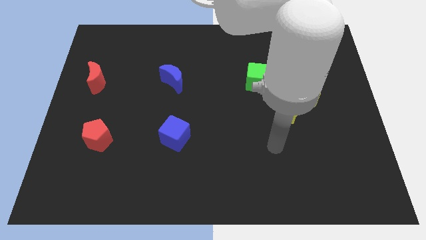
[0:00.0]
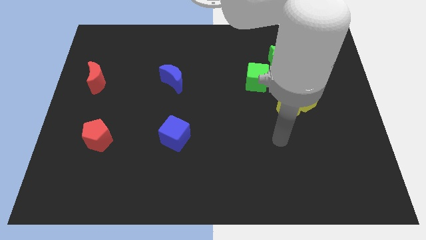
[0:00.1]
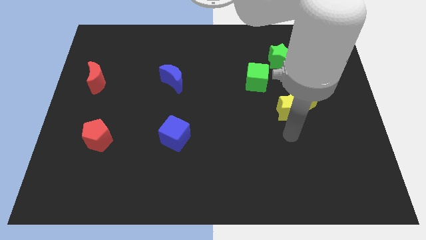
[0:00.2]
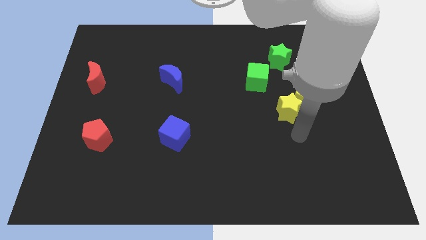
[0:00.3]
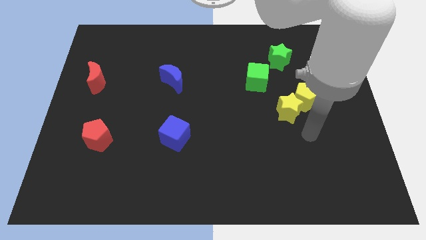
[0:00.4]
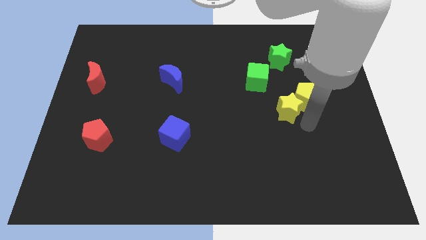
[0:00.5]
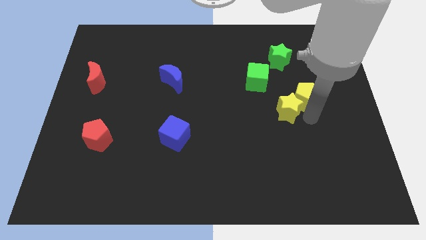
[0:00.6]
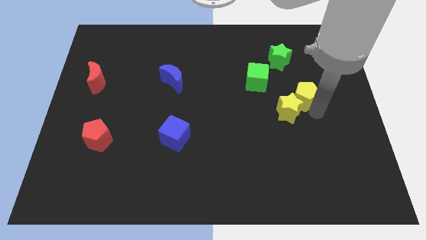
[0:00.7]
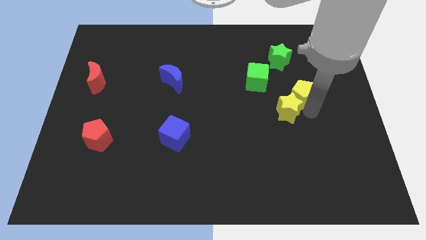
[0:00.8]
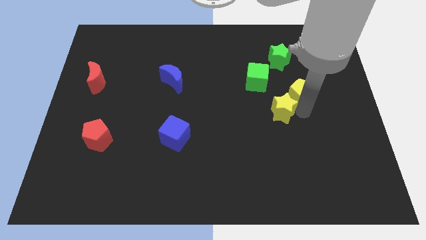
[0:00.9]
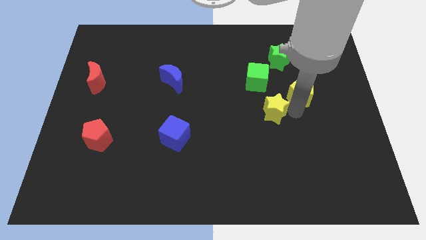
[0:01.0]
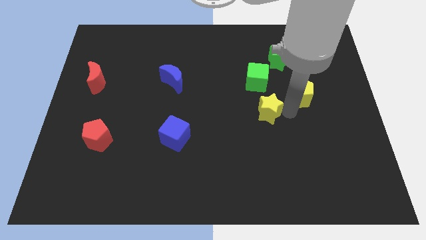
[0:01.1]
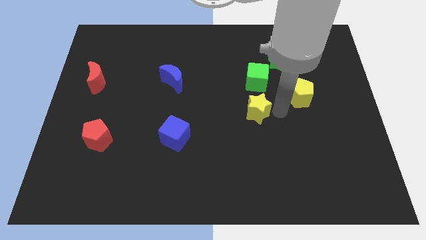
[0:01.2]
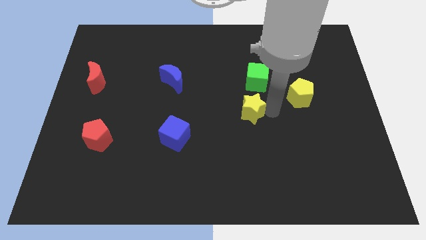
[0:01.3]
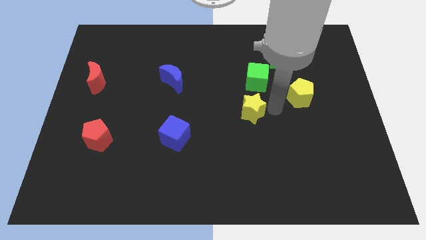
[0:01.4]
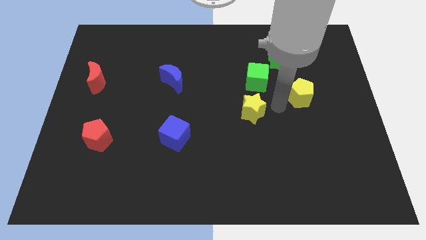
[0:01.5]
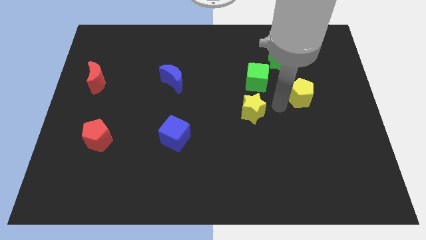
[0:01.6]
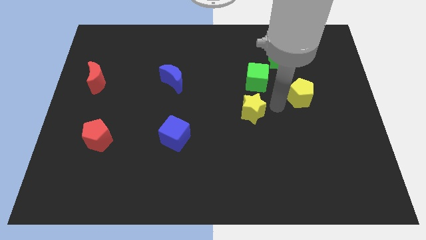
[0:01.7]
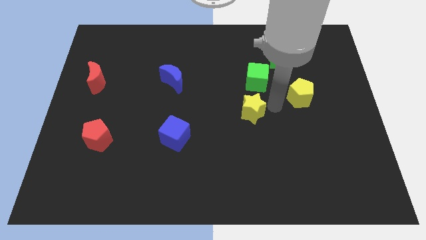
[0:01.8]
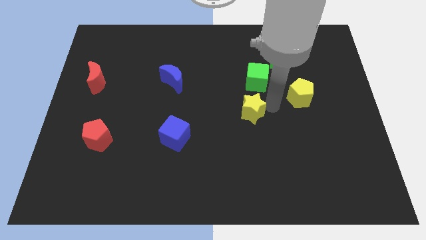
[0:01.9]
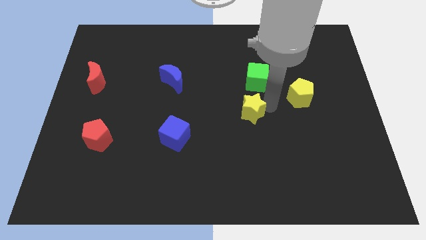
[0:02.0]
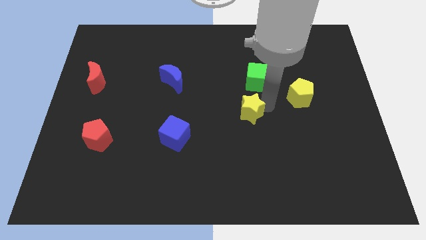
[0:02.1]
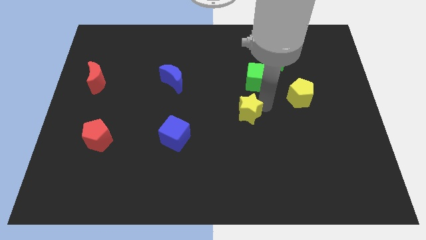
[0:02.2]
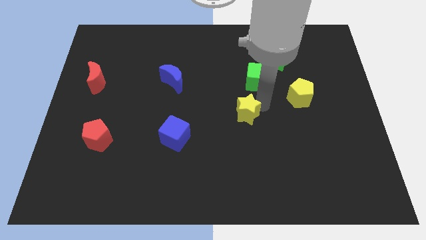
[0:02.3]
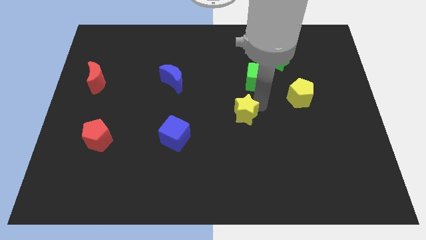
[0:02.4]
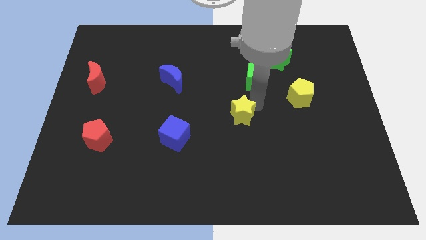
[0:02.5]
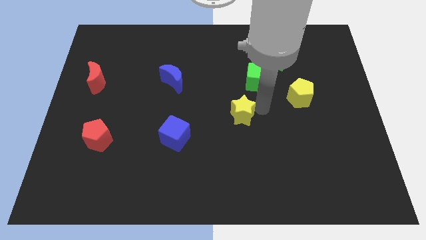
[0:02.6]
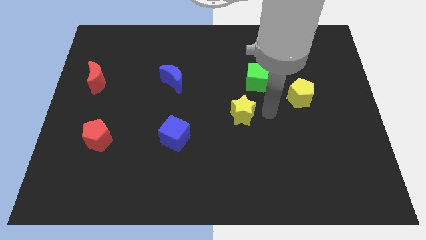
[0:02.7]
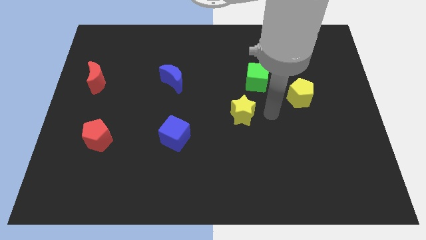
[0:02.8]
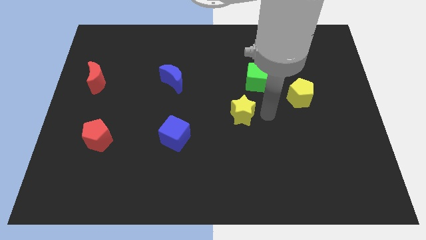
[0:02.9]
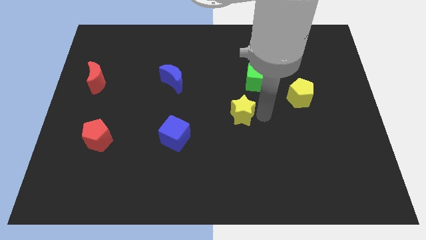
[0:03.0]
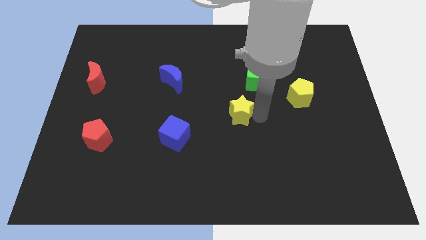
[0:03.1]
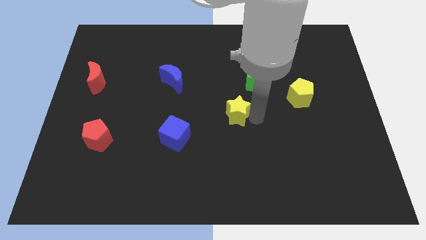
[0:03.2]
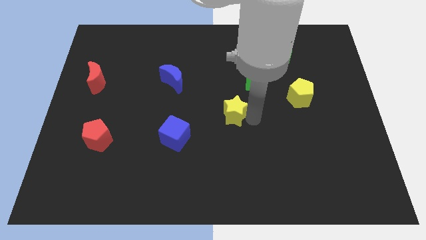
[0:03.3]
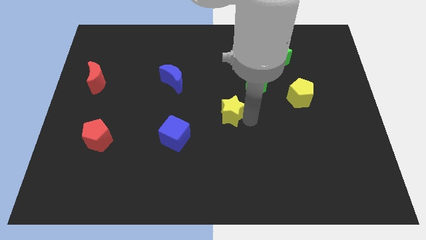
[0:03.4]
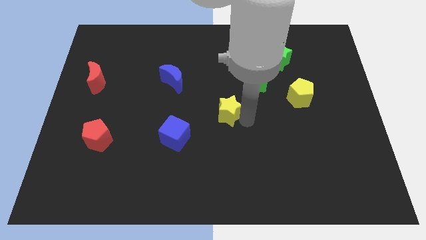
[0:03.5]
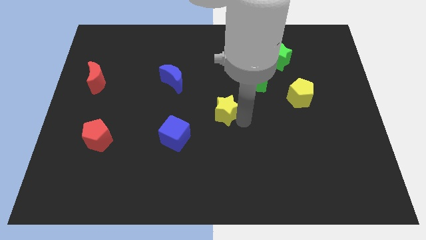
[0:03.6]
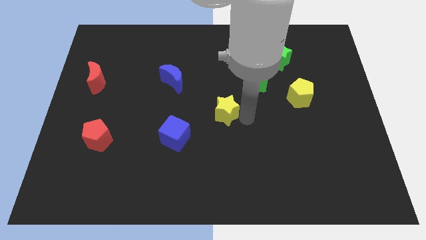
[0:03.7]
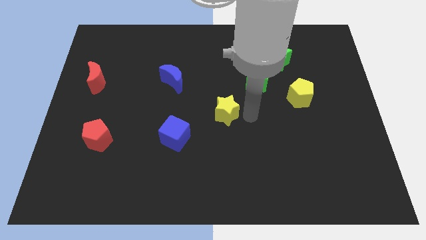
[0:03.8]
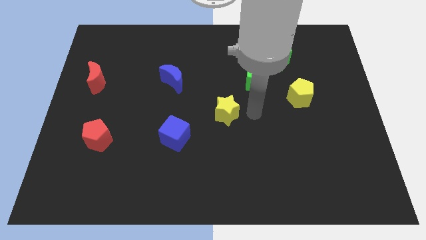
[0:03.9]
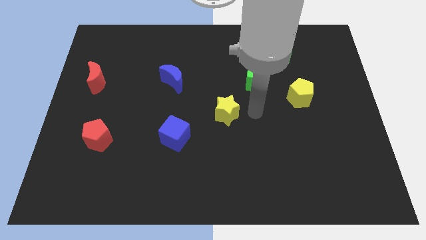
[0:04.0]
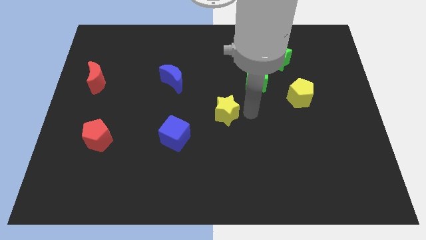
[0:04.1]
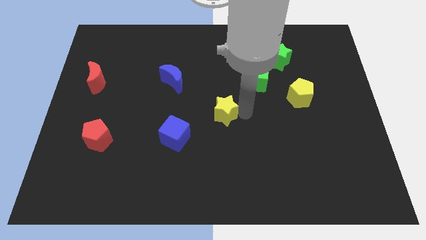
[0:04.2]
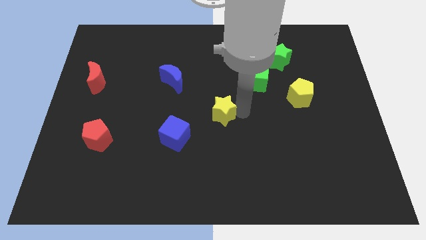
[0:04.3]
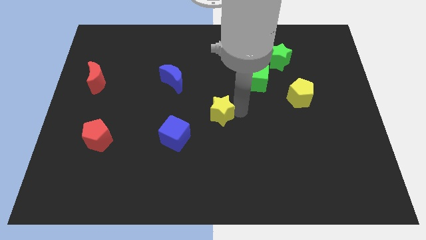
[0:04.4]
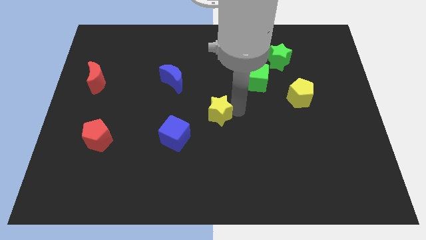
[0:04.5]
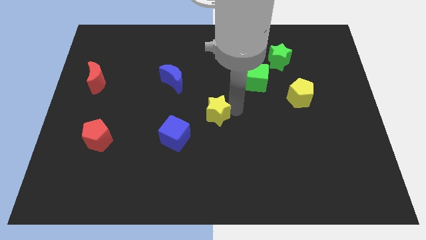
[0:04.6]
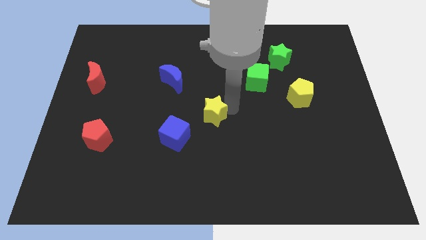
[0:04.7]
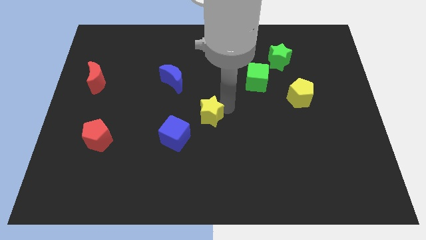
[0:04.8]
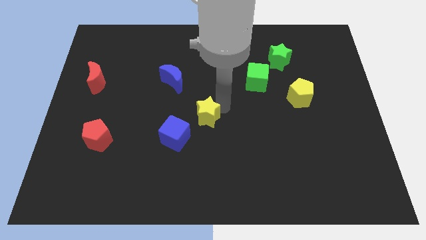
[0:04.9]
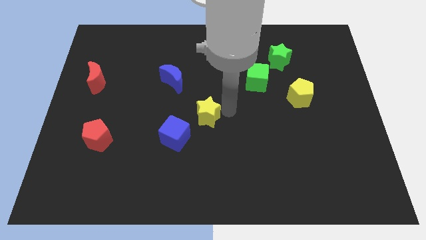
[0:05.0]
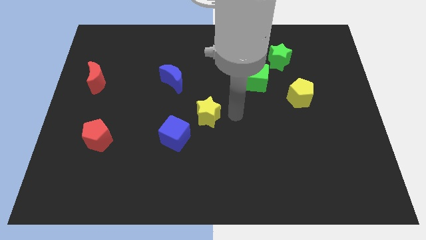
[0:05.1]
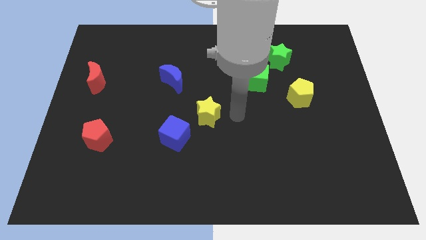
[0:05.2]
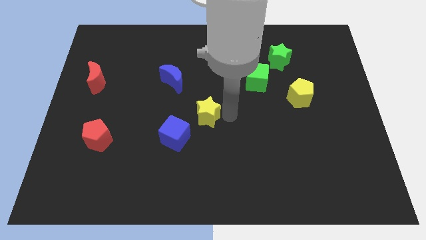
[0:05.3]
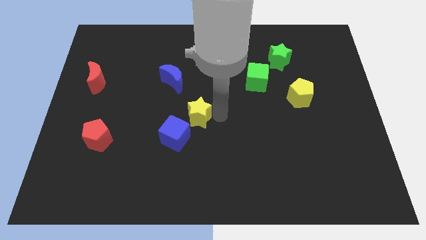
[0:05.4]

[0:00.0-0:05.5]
slide the yellow star left

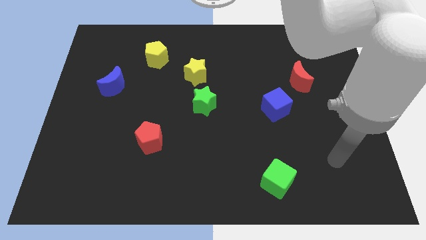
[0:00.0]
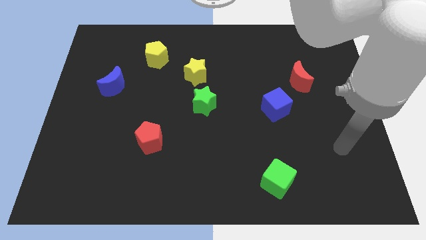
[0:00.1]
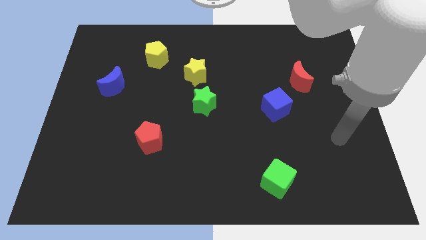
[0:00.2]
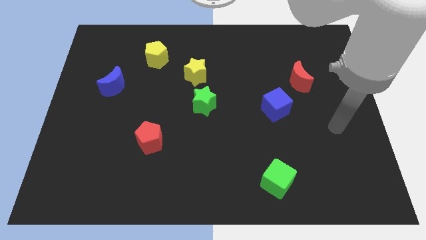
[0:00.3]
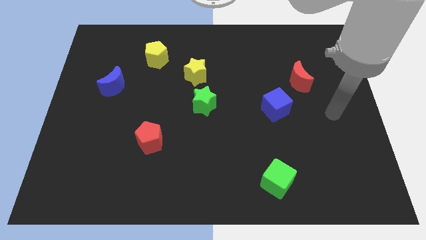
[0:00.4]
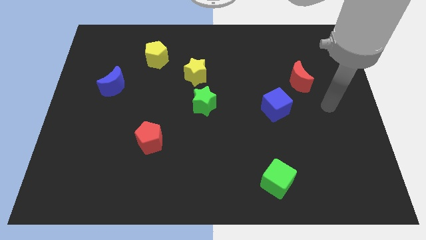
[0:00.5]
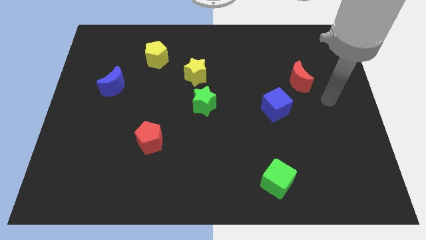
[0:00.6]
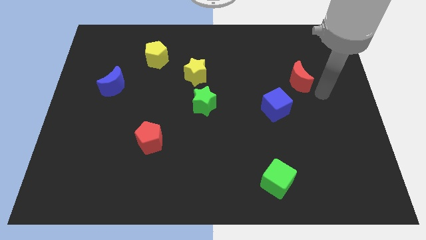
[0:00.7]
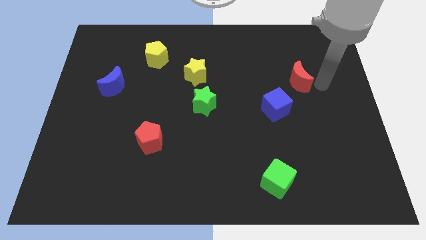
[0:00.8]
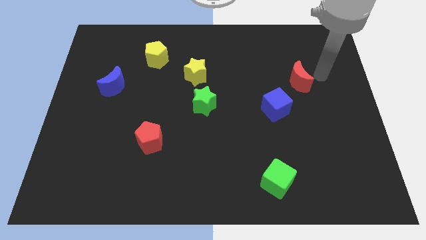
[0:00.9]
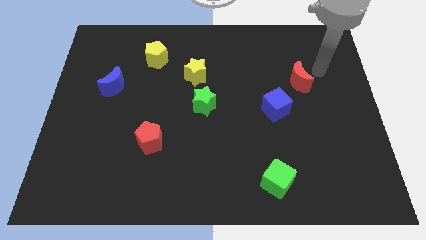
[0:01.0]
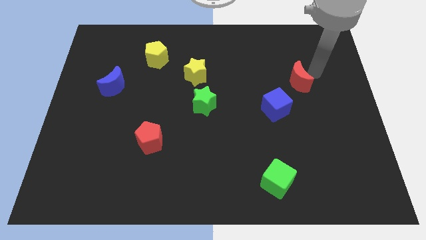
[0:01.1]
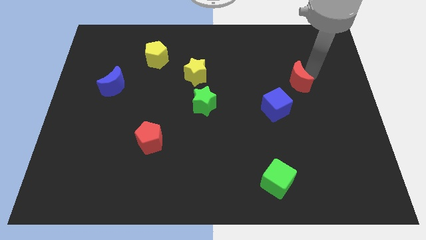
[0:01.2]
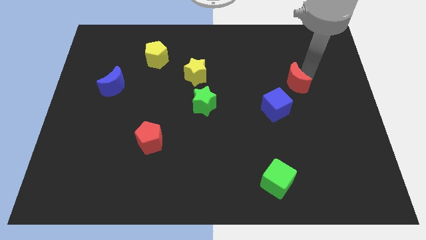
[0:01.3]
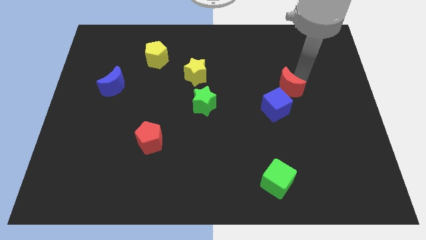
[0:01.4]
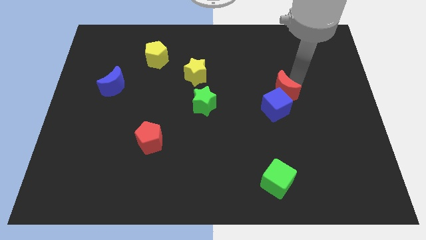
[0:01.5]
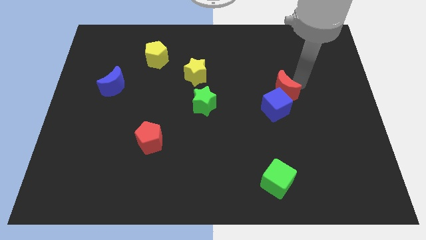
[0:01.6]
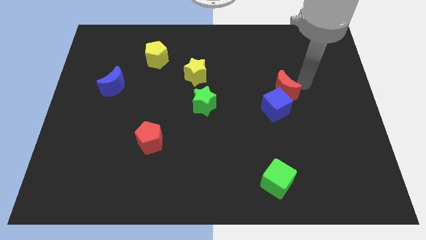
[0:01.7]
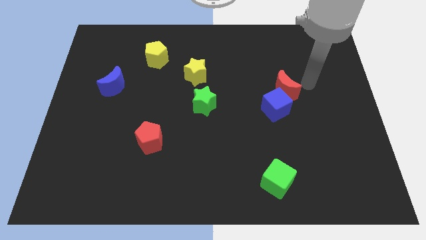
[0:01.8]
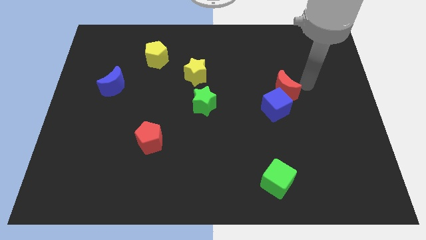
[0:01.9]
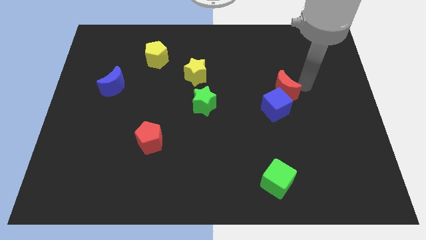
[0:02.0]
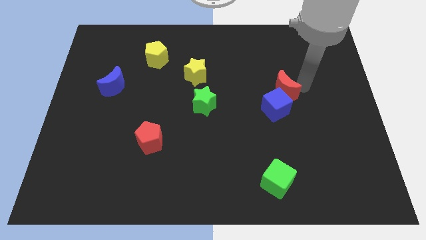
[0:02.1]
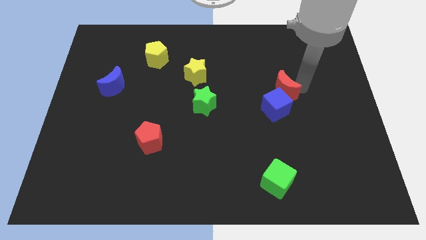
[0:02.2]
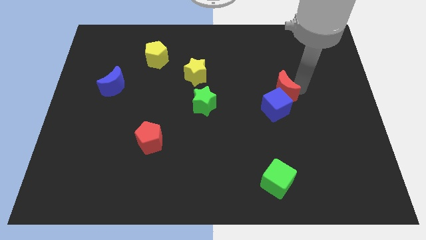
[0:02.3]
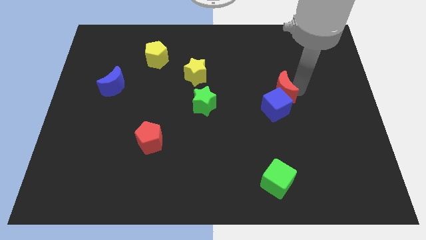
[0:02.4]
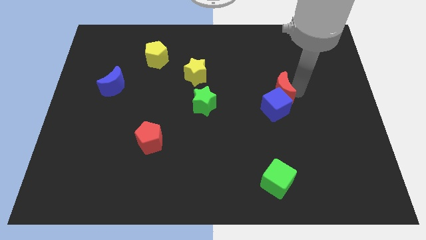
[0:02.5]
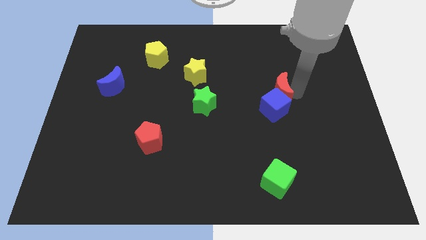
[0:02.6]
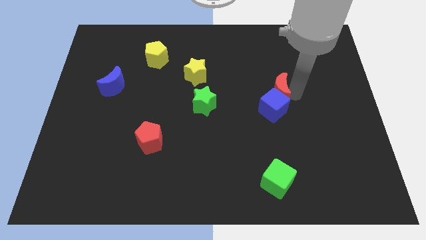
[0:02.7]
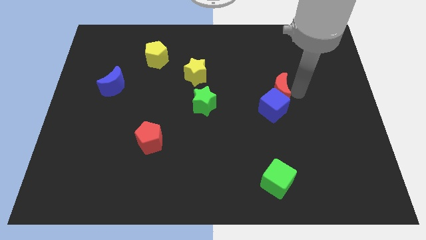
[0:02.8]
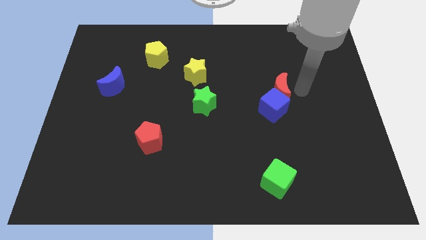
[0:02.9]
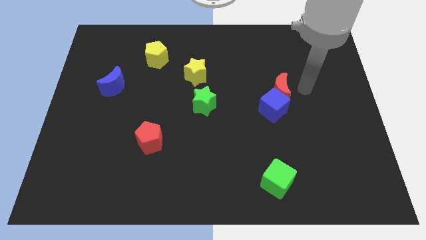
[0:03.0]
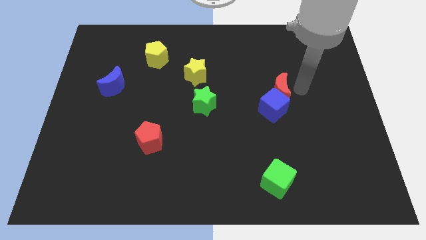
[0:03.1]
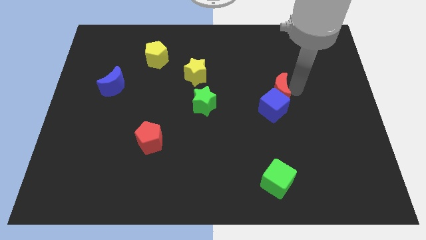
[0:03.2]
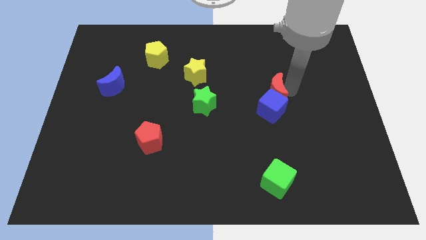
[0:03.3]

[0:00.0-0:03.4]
push the red moon a little diagonally down and left
